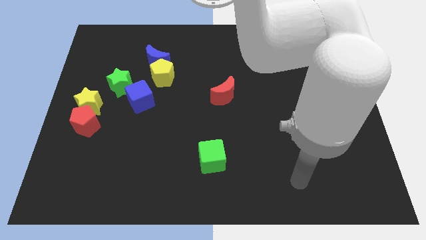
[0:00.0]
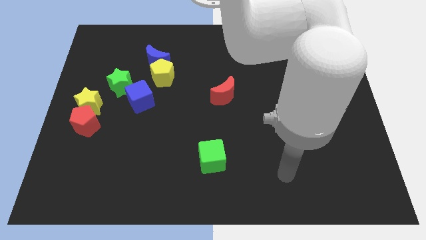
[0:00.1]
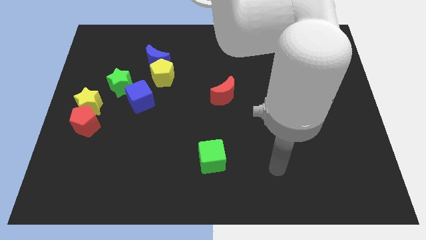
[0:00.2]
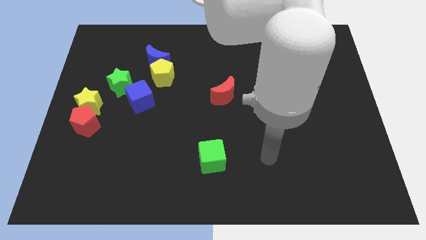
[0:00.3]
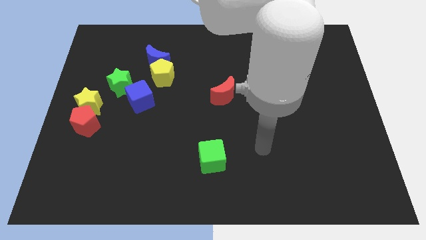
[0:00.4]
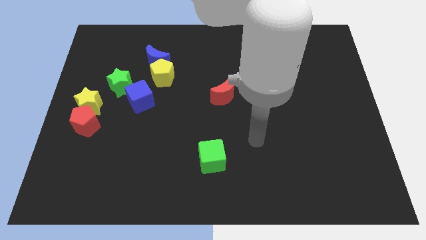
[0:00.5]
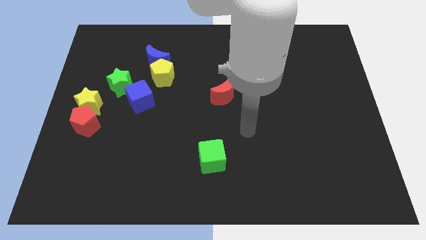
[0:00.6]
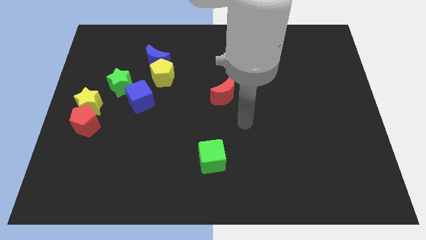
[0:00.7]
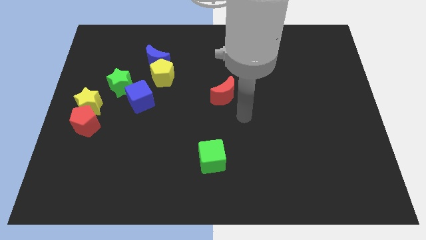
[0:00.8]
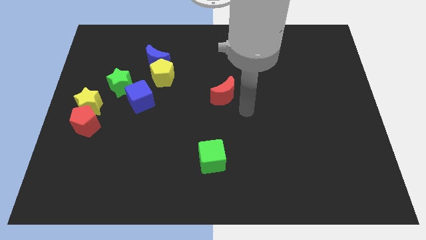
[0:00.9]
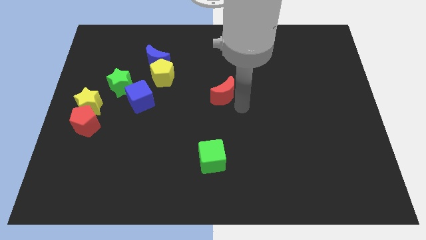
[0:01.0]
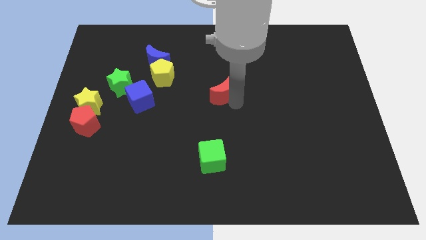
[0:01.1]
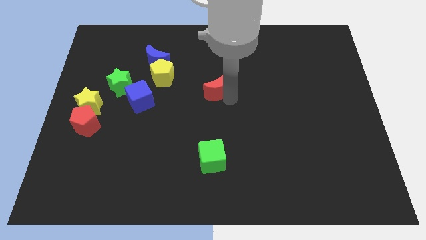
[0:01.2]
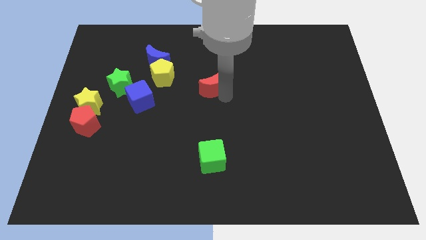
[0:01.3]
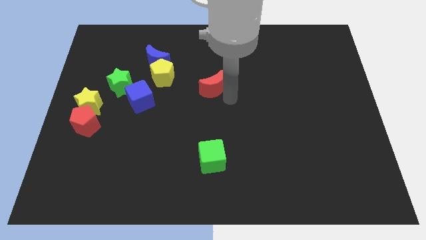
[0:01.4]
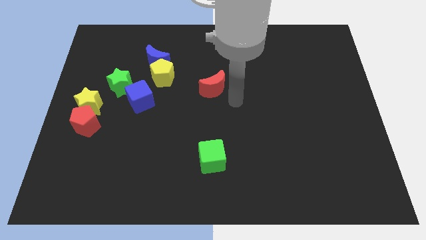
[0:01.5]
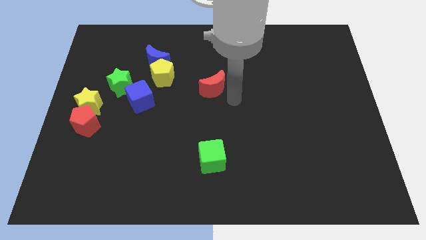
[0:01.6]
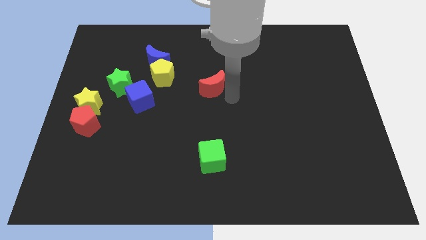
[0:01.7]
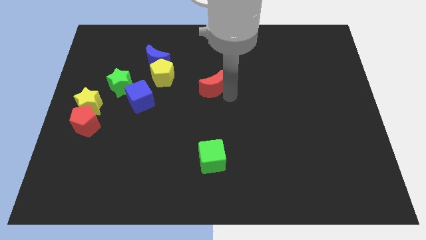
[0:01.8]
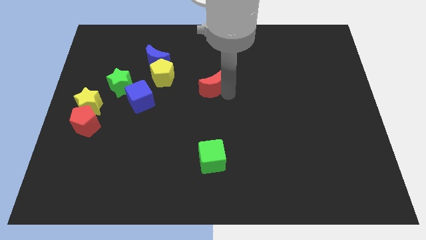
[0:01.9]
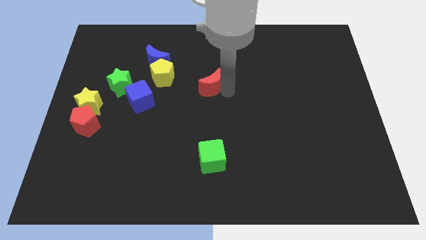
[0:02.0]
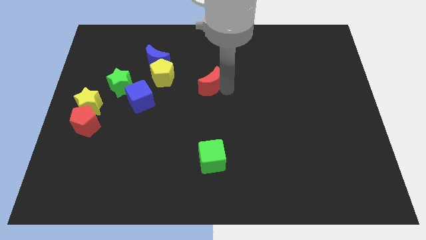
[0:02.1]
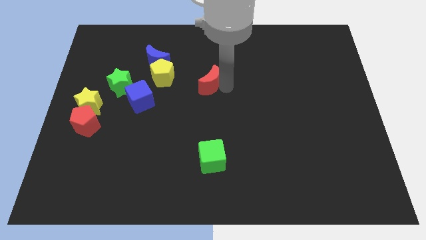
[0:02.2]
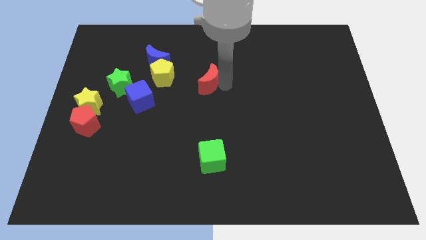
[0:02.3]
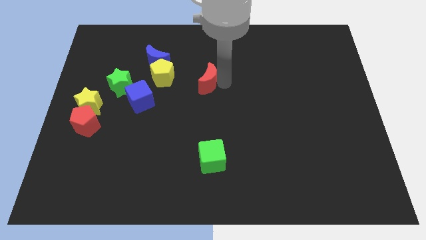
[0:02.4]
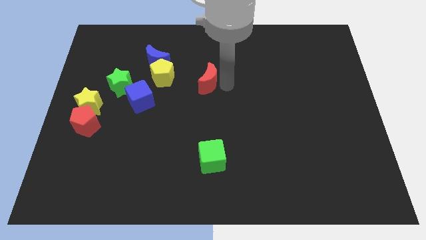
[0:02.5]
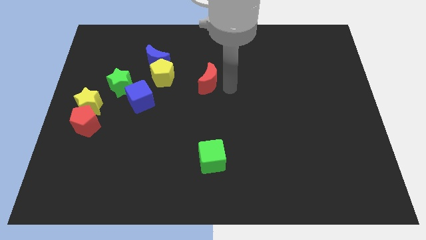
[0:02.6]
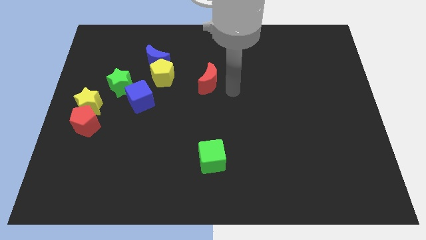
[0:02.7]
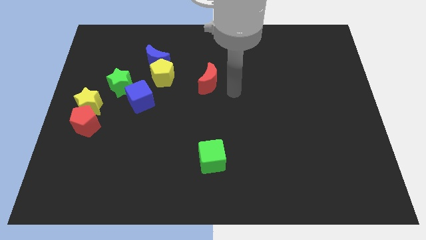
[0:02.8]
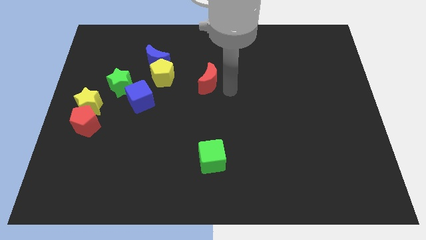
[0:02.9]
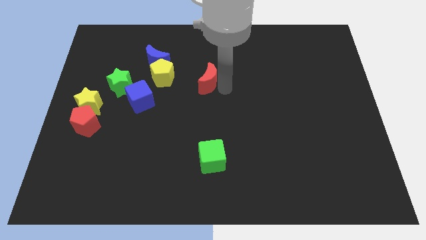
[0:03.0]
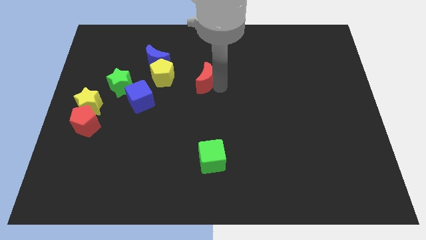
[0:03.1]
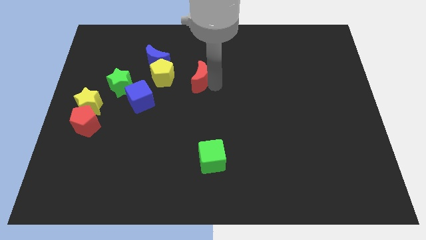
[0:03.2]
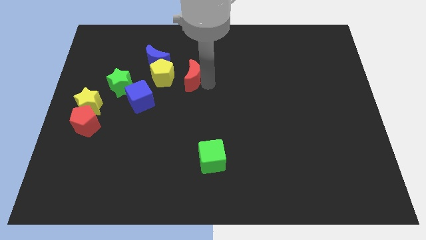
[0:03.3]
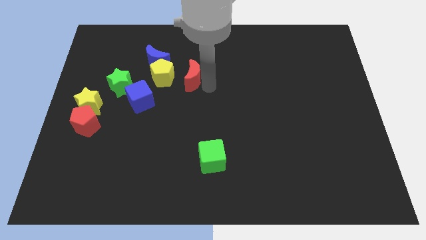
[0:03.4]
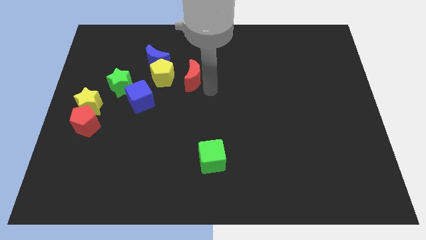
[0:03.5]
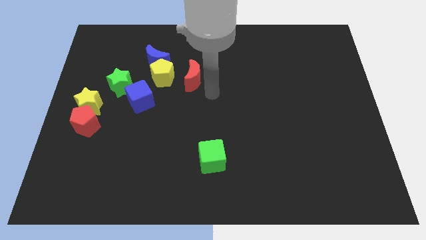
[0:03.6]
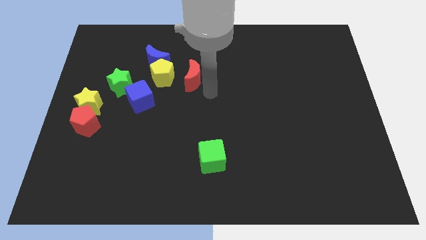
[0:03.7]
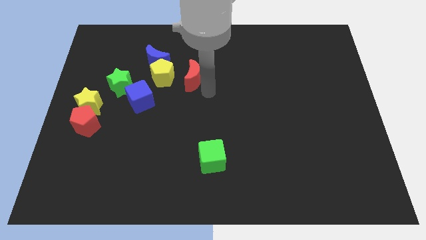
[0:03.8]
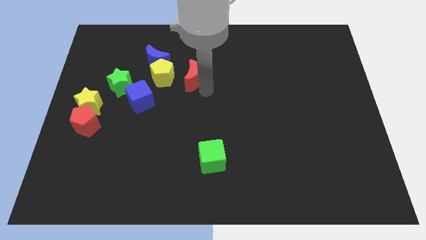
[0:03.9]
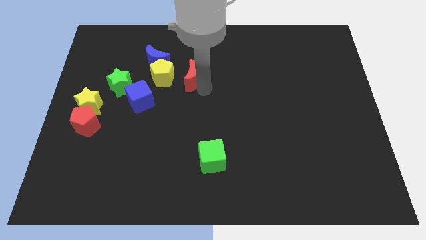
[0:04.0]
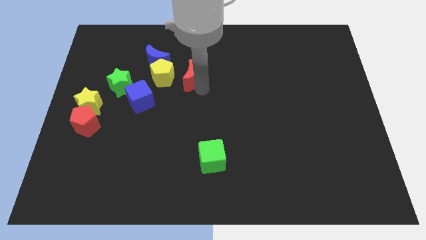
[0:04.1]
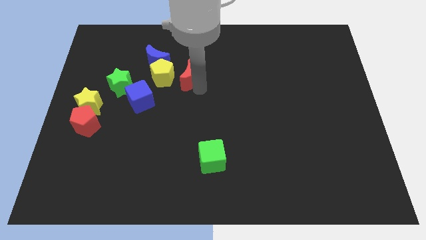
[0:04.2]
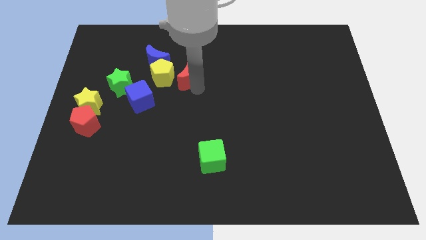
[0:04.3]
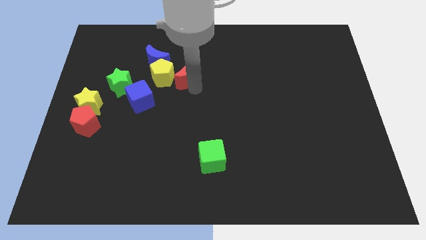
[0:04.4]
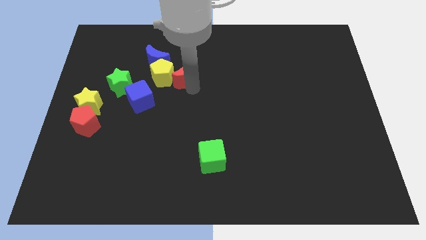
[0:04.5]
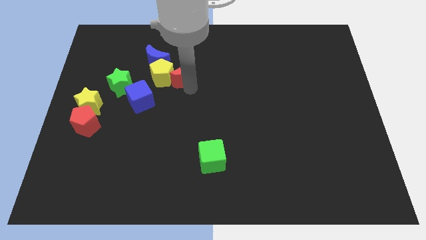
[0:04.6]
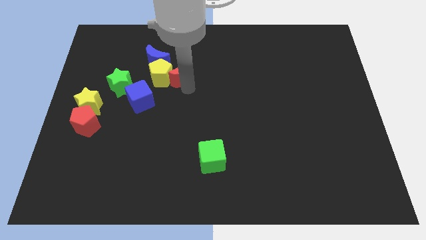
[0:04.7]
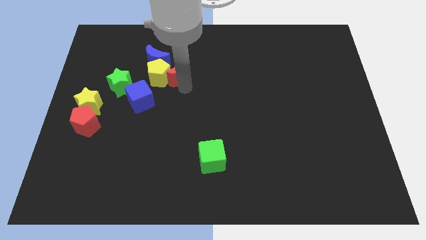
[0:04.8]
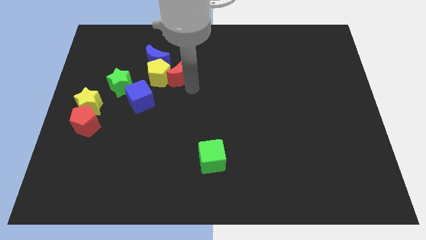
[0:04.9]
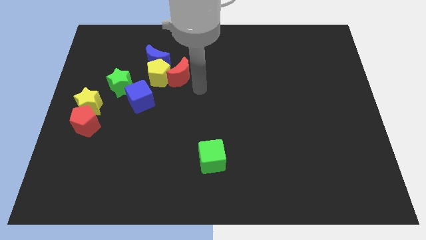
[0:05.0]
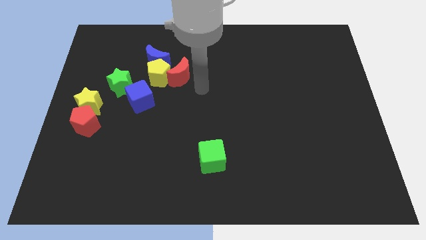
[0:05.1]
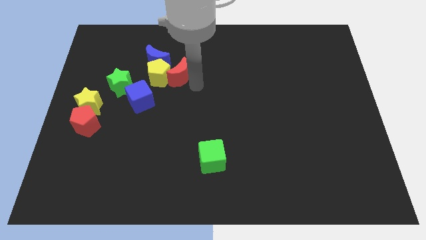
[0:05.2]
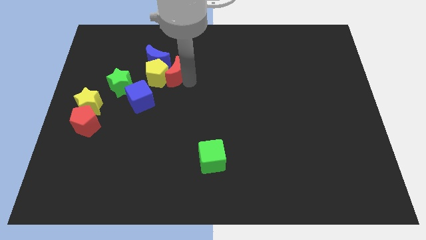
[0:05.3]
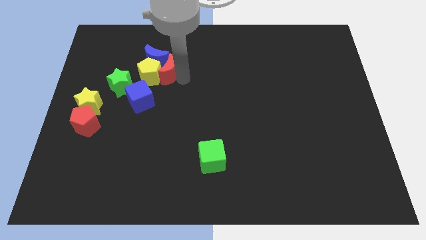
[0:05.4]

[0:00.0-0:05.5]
slide the red moon to the blue moon

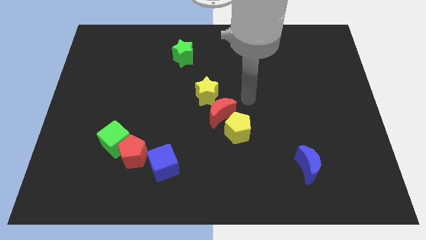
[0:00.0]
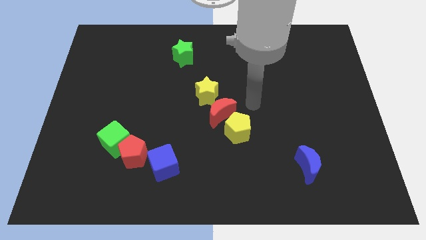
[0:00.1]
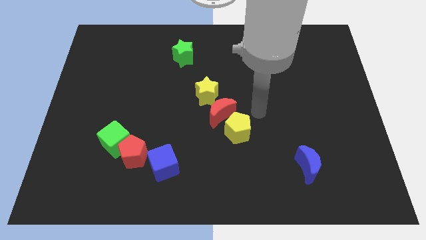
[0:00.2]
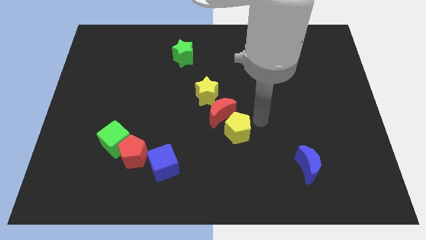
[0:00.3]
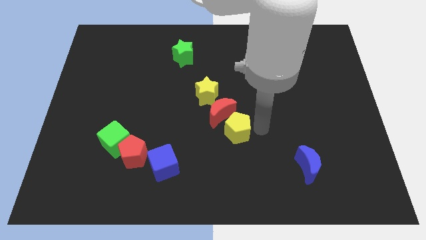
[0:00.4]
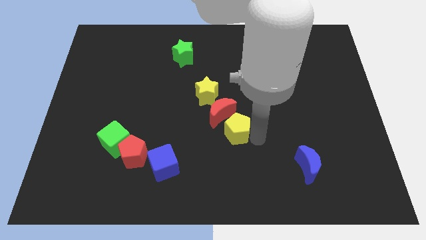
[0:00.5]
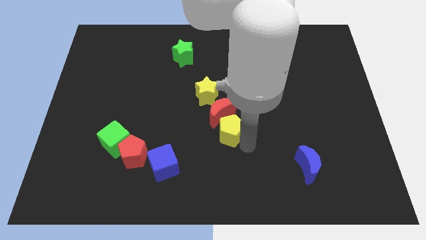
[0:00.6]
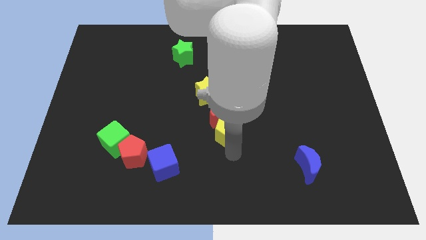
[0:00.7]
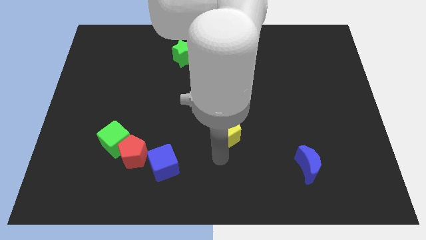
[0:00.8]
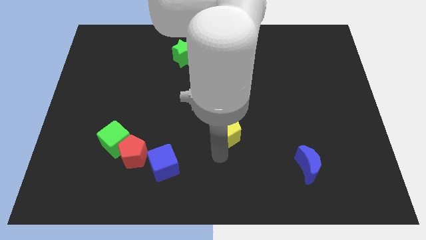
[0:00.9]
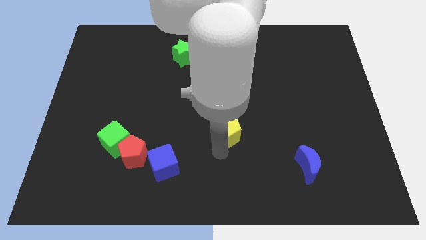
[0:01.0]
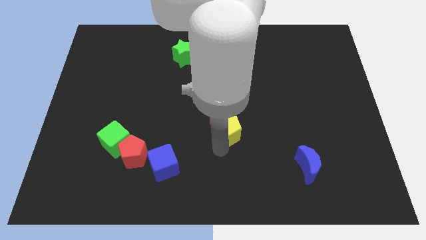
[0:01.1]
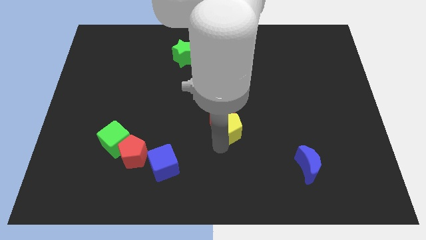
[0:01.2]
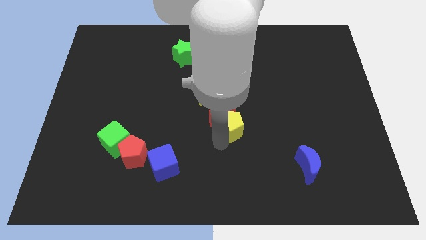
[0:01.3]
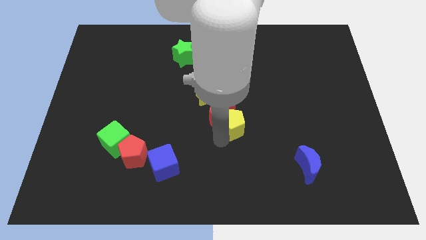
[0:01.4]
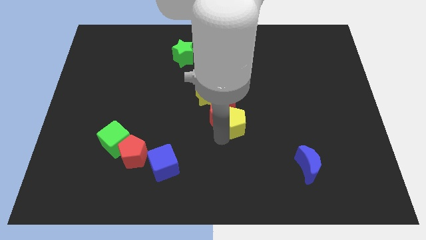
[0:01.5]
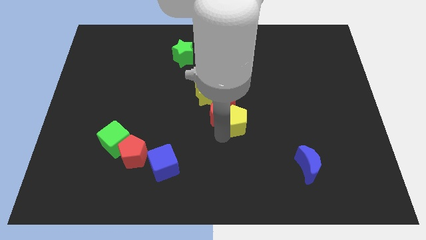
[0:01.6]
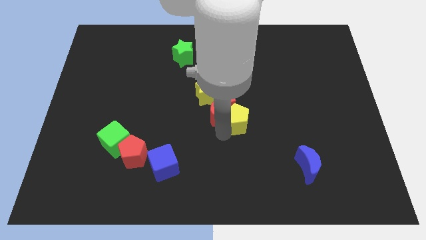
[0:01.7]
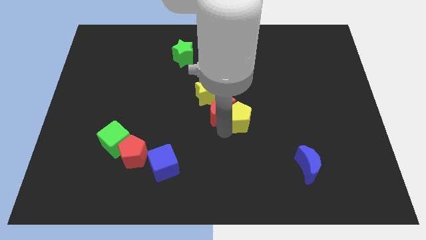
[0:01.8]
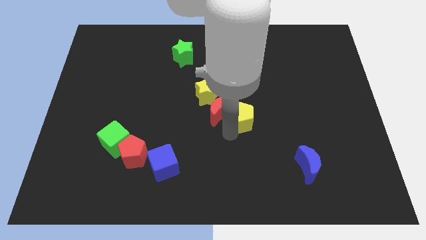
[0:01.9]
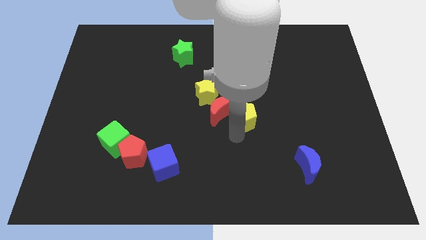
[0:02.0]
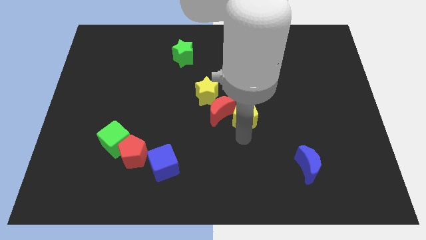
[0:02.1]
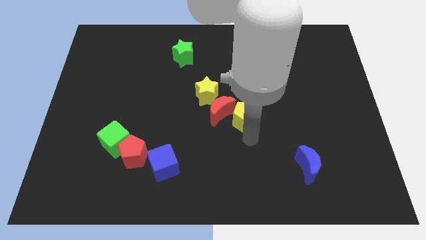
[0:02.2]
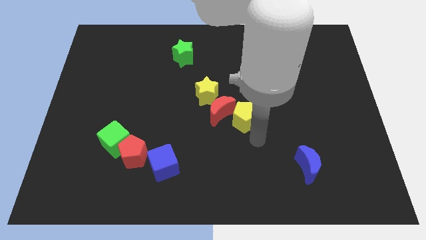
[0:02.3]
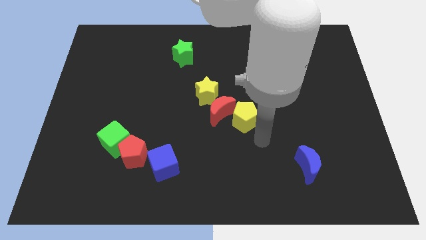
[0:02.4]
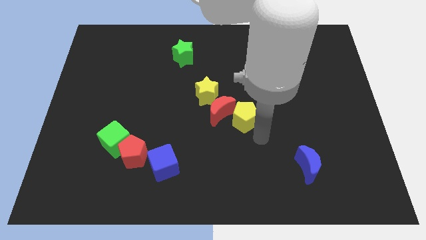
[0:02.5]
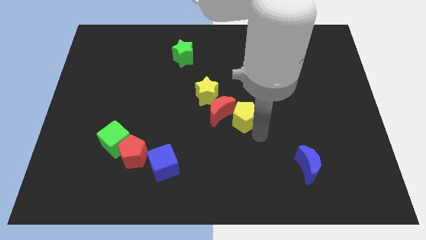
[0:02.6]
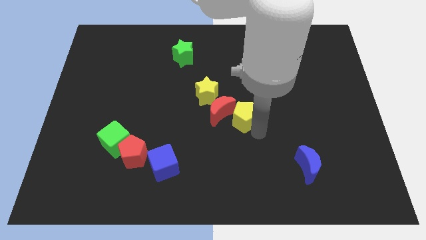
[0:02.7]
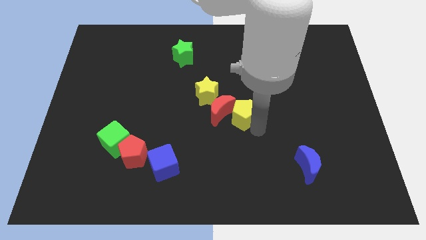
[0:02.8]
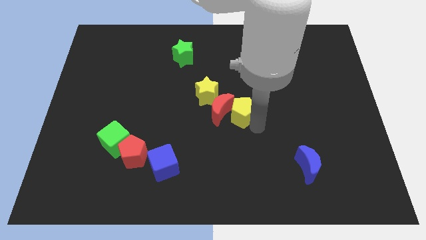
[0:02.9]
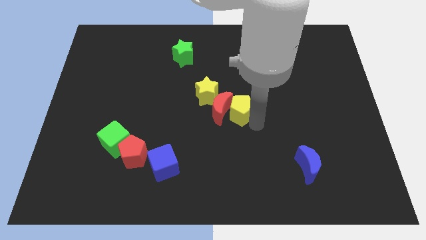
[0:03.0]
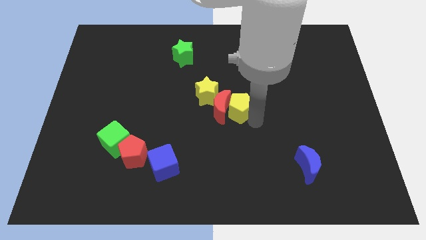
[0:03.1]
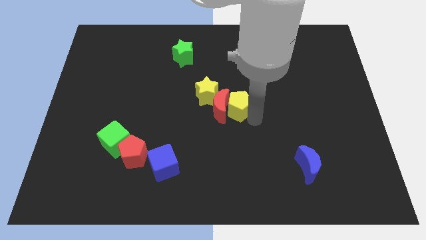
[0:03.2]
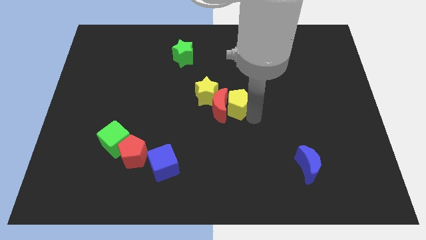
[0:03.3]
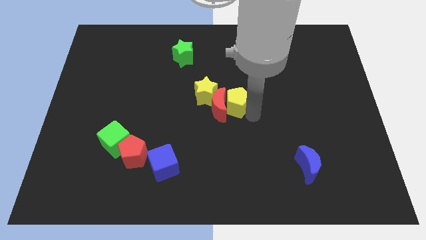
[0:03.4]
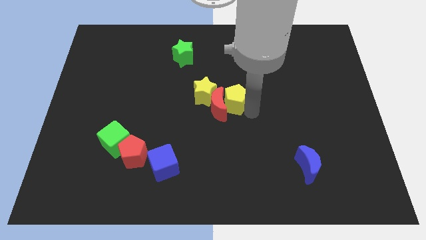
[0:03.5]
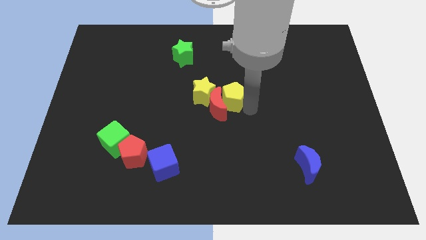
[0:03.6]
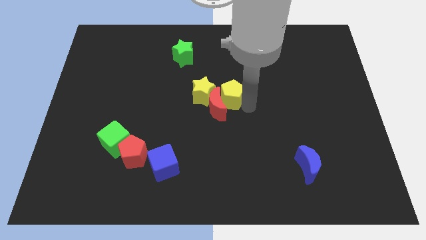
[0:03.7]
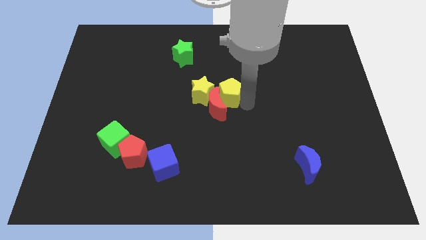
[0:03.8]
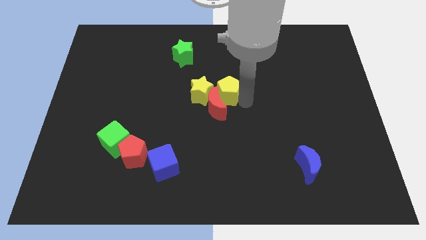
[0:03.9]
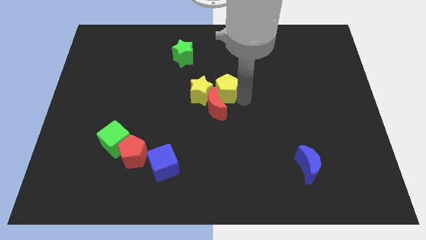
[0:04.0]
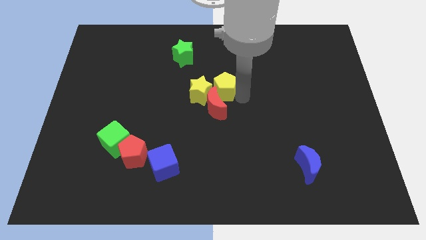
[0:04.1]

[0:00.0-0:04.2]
move the yellow pentagon next to the yellow star
